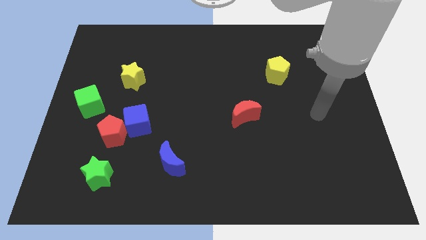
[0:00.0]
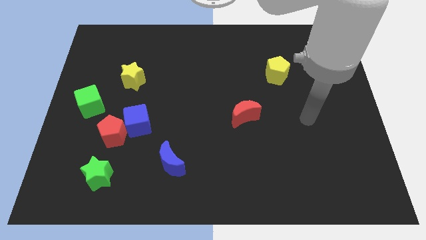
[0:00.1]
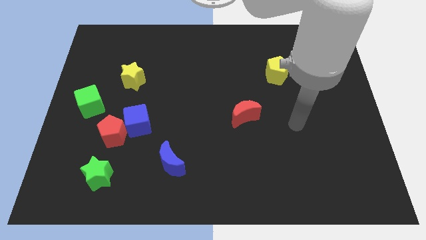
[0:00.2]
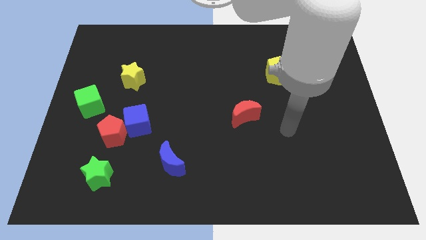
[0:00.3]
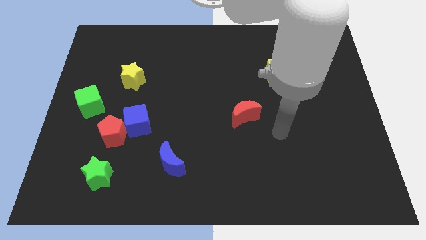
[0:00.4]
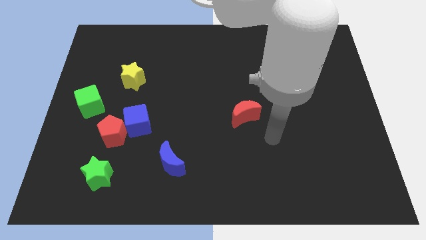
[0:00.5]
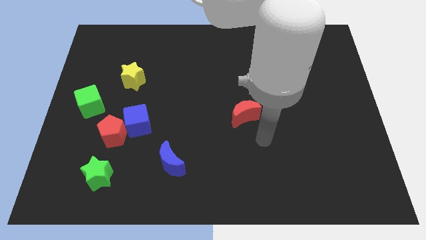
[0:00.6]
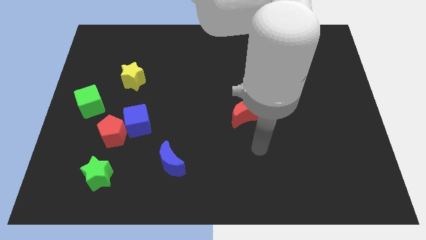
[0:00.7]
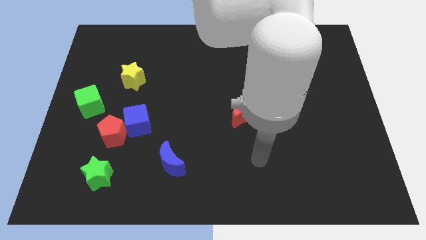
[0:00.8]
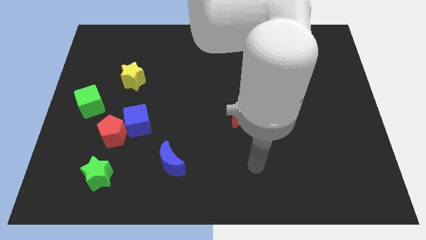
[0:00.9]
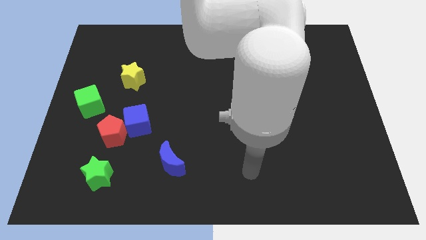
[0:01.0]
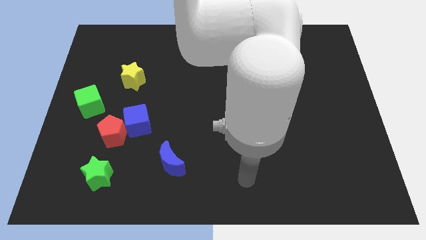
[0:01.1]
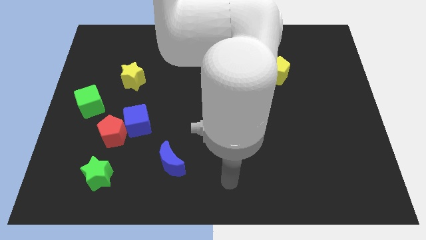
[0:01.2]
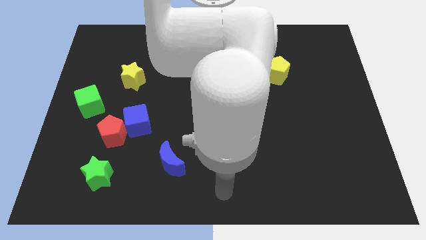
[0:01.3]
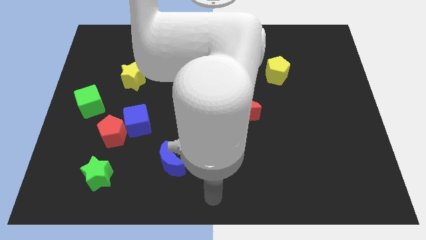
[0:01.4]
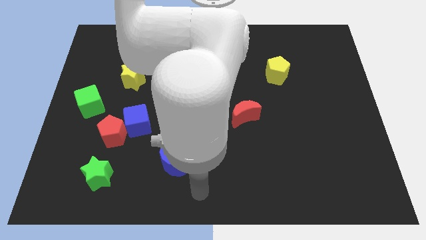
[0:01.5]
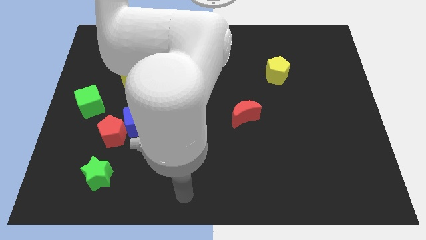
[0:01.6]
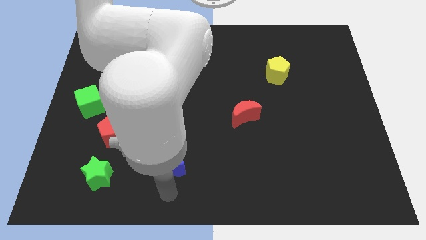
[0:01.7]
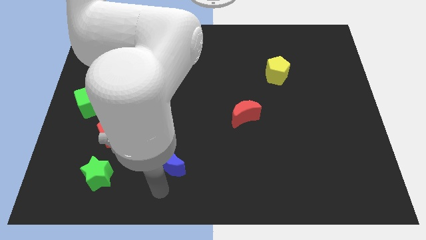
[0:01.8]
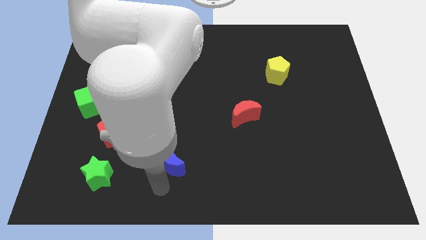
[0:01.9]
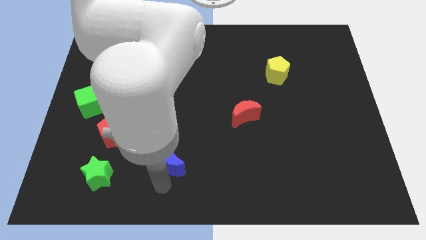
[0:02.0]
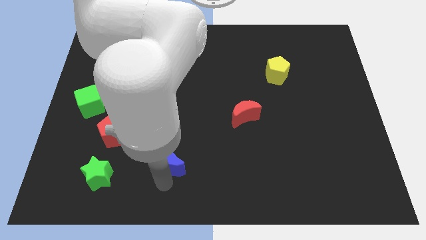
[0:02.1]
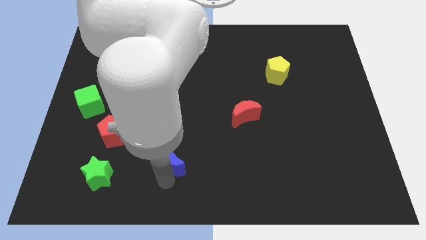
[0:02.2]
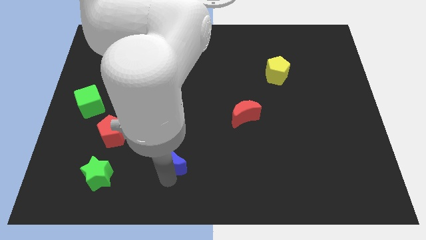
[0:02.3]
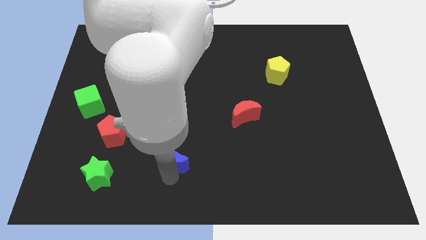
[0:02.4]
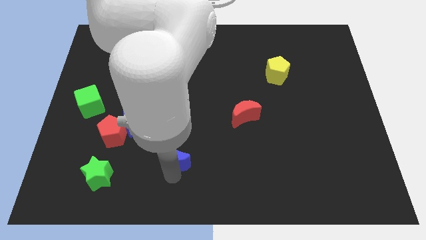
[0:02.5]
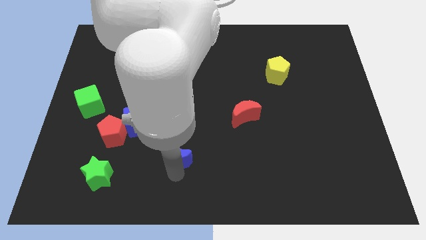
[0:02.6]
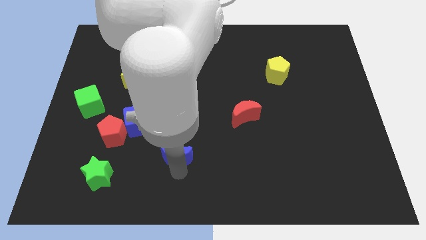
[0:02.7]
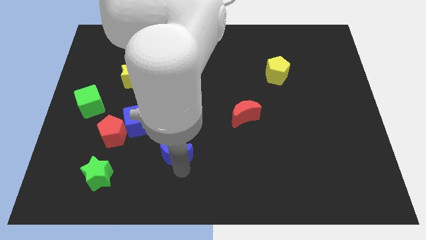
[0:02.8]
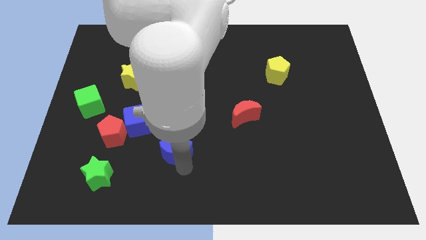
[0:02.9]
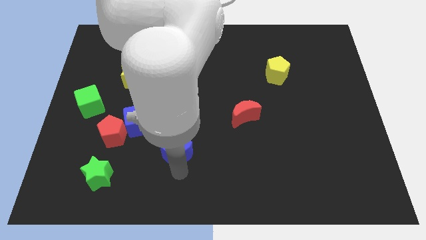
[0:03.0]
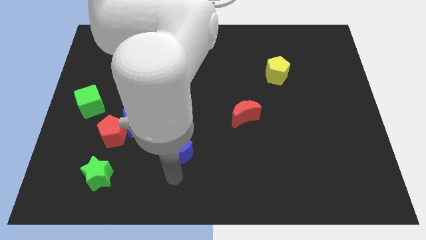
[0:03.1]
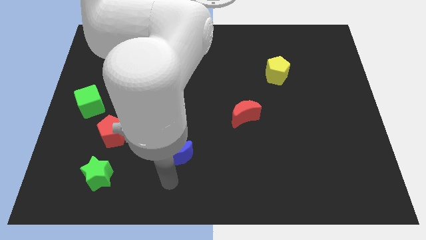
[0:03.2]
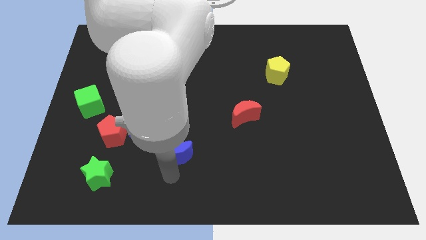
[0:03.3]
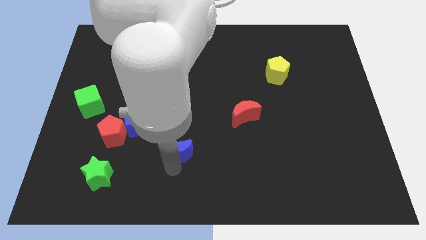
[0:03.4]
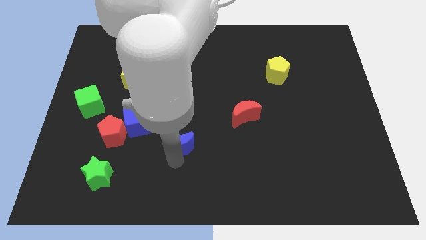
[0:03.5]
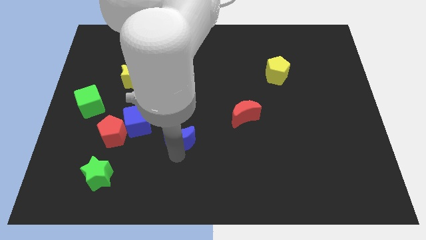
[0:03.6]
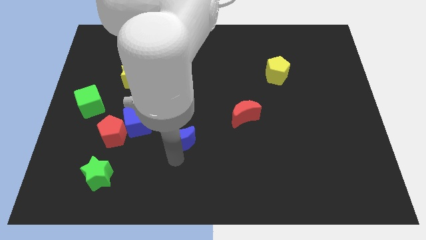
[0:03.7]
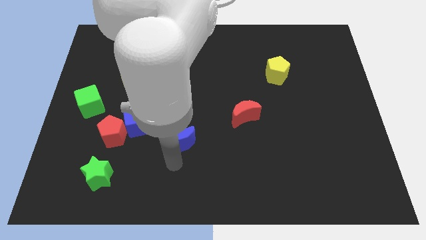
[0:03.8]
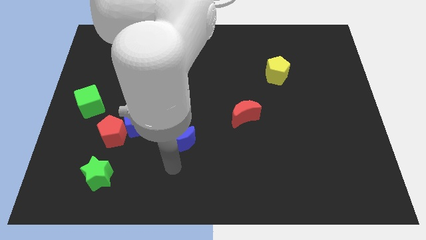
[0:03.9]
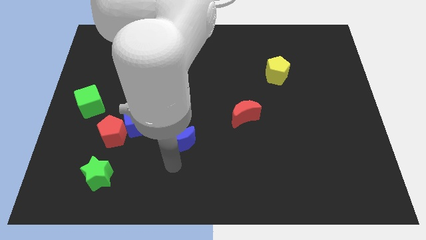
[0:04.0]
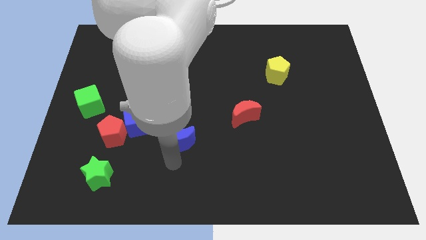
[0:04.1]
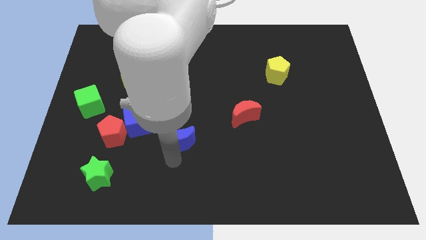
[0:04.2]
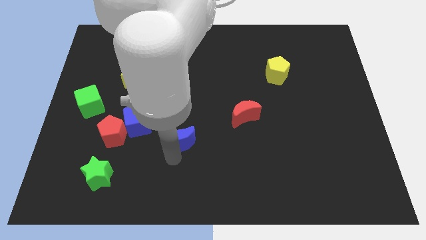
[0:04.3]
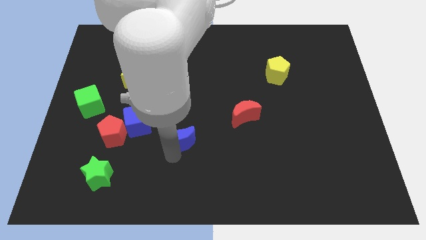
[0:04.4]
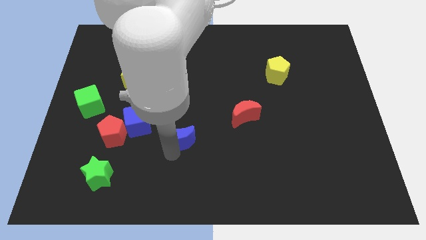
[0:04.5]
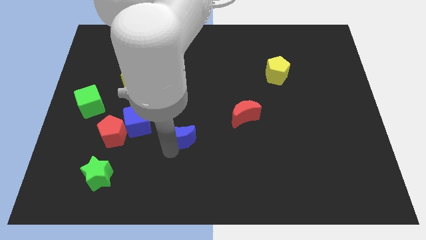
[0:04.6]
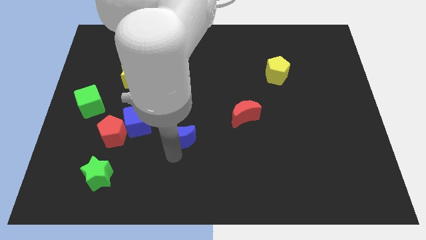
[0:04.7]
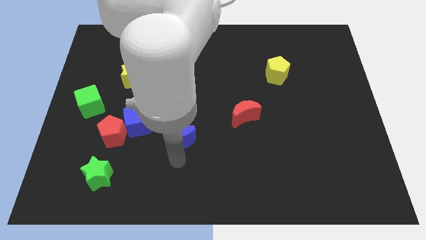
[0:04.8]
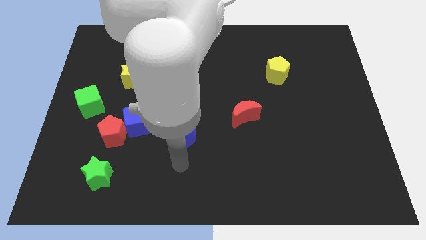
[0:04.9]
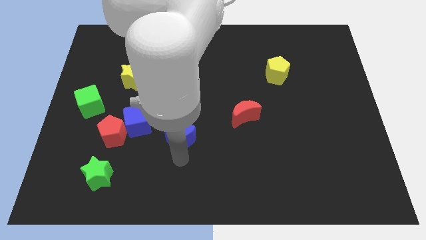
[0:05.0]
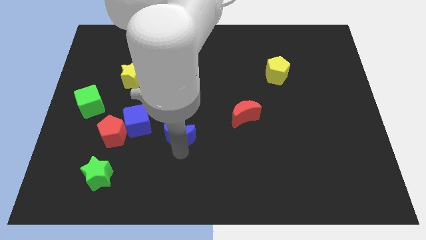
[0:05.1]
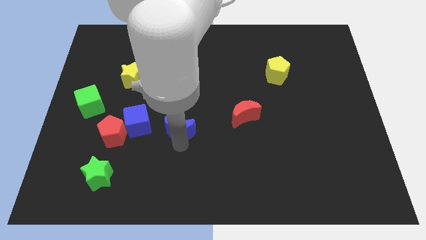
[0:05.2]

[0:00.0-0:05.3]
slightly move the blue moon upwards

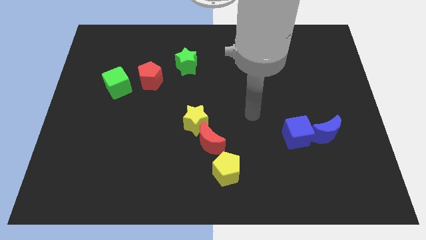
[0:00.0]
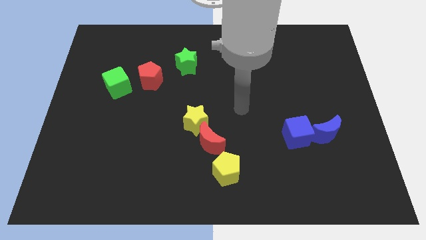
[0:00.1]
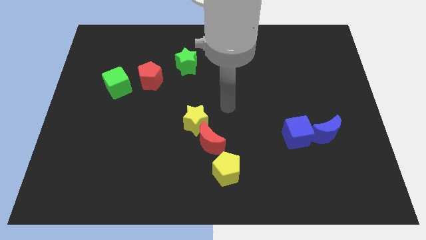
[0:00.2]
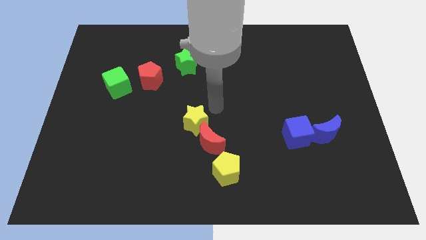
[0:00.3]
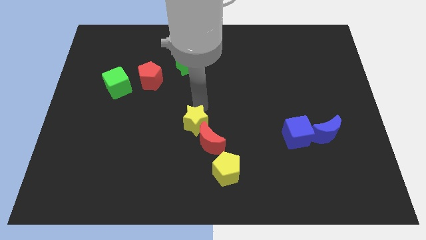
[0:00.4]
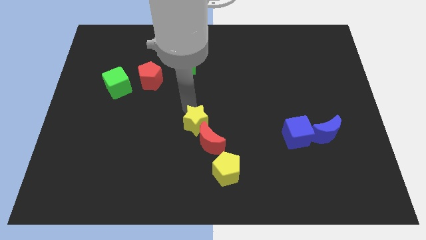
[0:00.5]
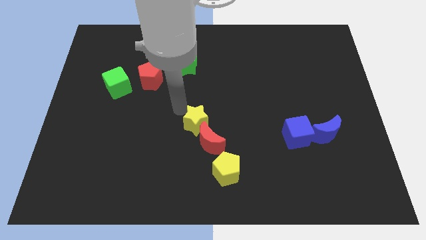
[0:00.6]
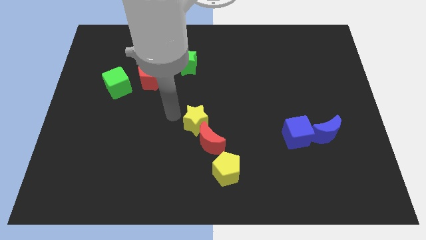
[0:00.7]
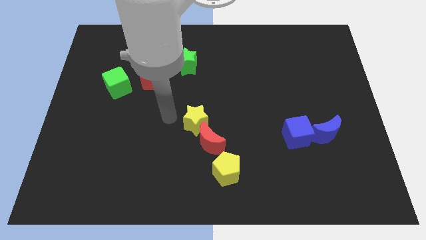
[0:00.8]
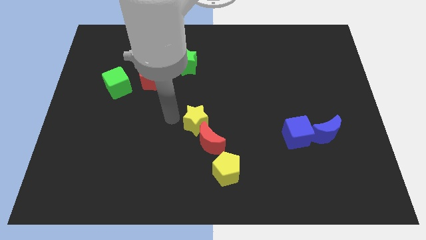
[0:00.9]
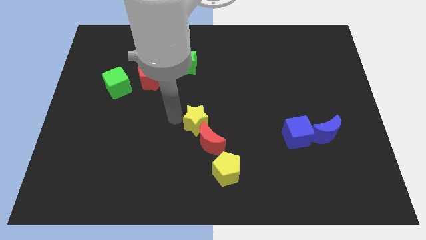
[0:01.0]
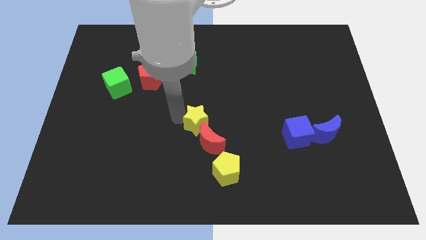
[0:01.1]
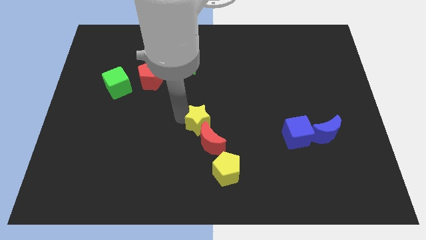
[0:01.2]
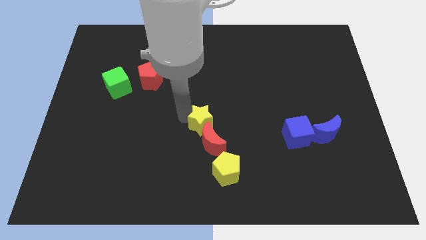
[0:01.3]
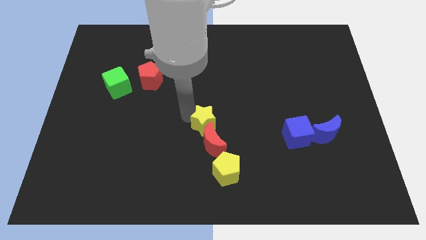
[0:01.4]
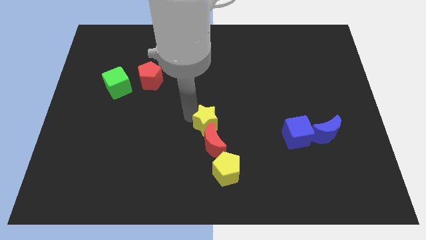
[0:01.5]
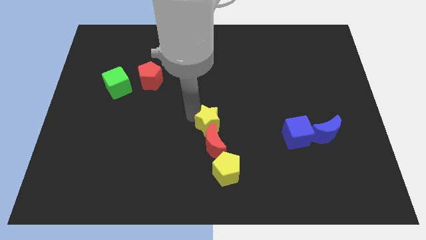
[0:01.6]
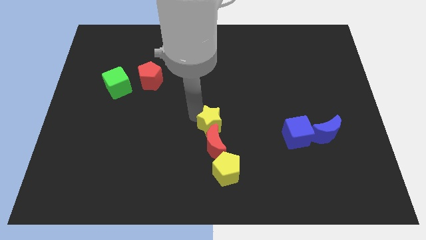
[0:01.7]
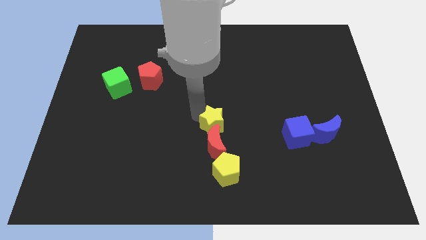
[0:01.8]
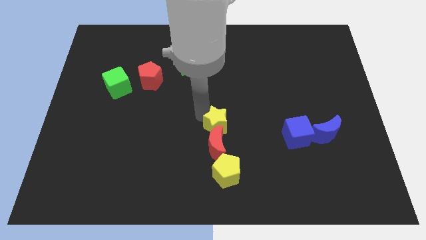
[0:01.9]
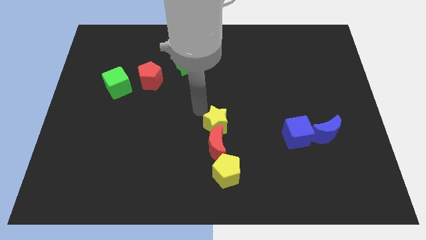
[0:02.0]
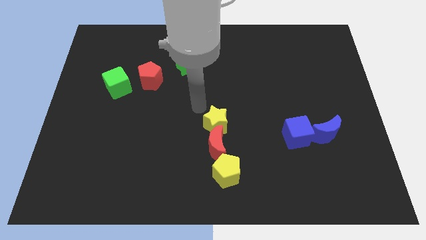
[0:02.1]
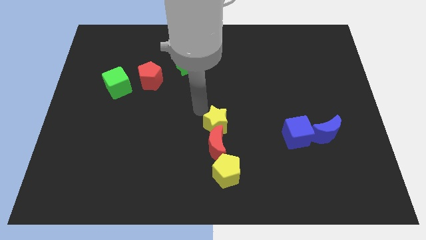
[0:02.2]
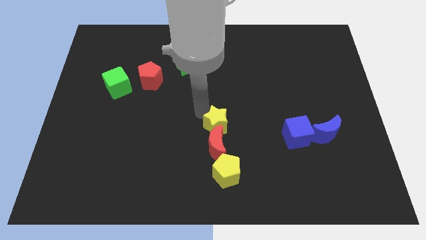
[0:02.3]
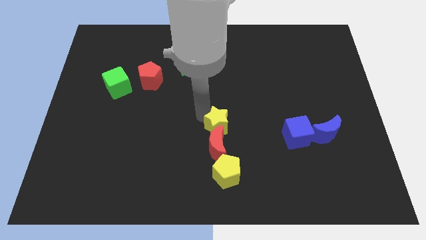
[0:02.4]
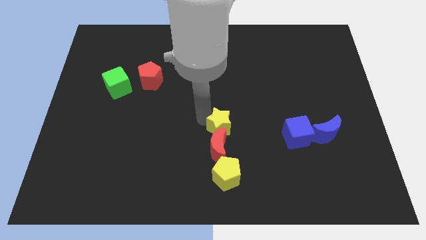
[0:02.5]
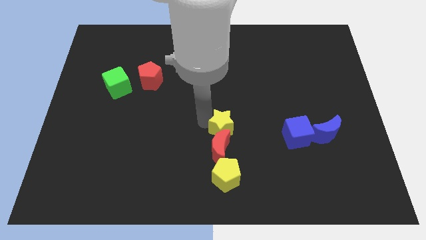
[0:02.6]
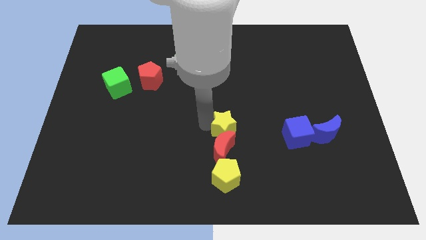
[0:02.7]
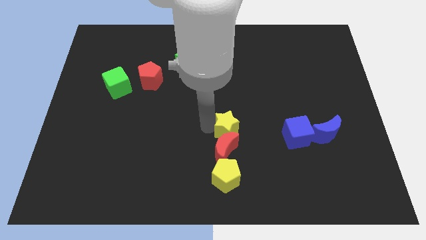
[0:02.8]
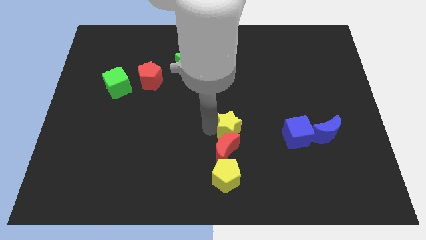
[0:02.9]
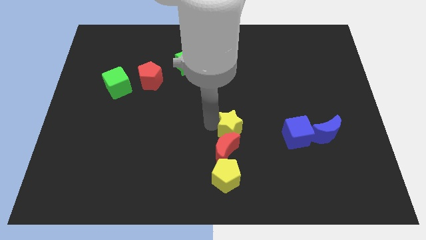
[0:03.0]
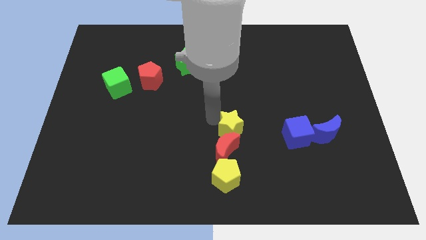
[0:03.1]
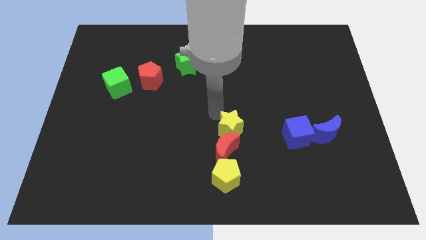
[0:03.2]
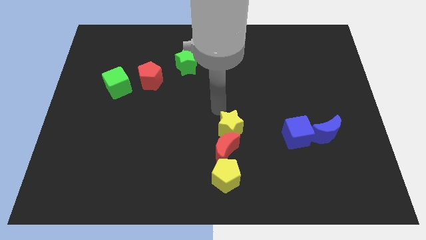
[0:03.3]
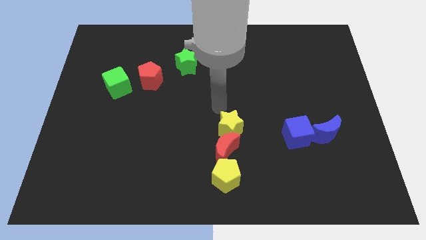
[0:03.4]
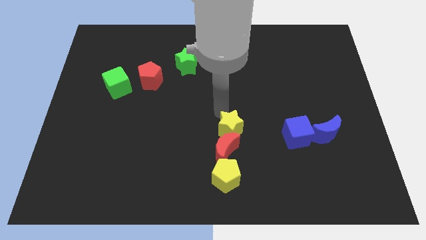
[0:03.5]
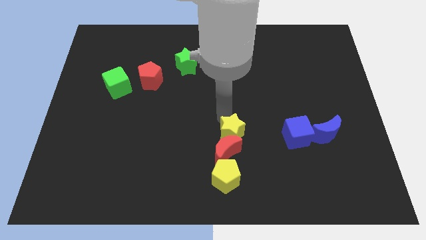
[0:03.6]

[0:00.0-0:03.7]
push the yellow star a little bit down and right diagonally
